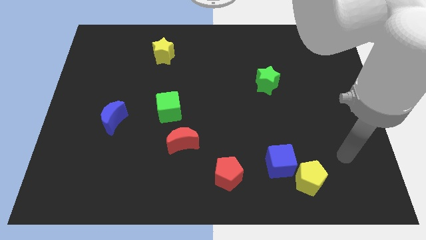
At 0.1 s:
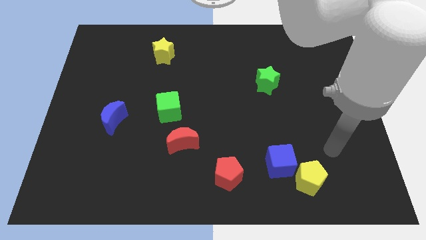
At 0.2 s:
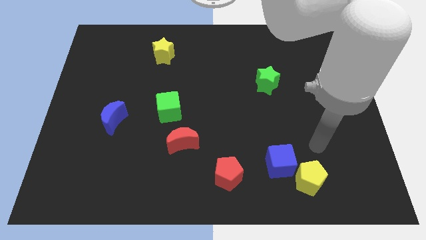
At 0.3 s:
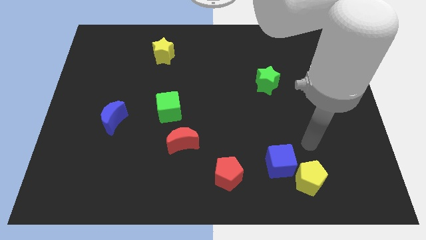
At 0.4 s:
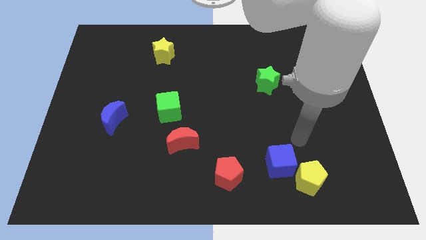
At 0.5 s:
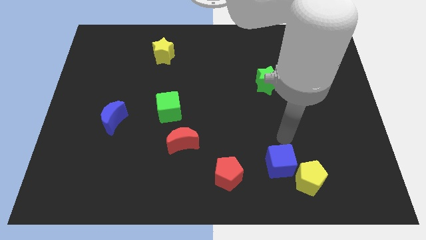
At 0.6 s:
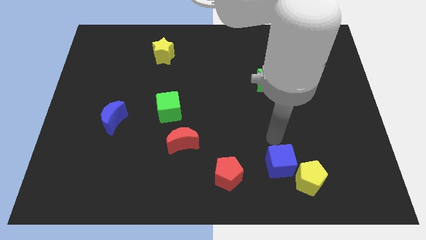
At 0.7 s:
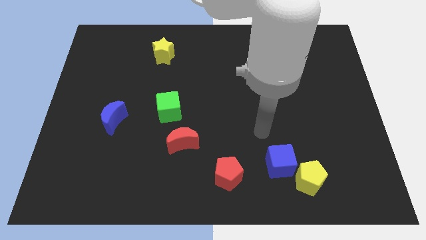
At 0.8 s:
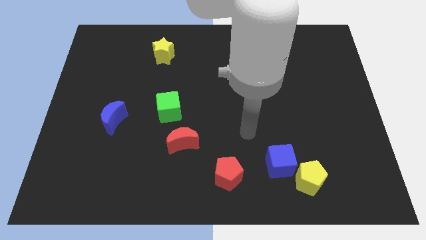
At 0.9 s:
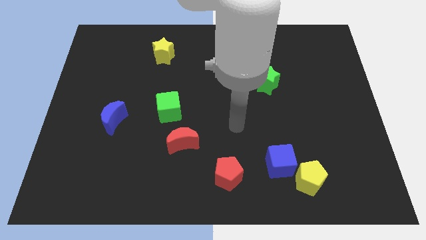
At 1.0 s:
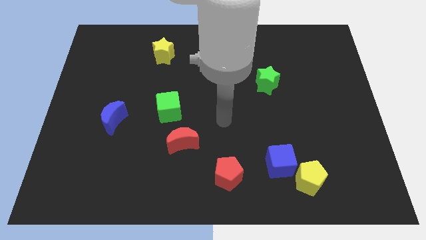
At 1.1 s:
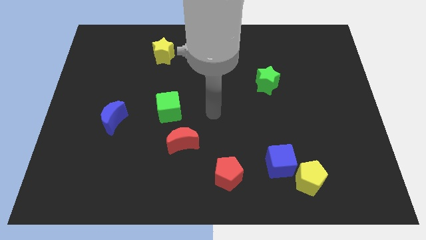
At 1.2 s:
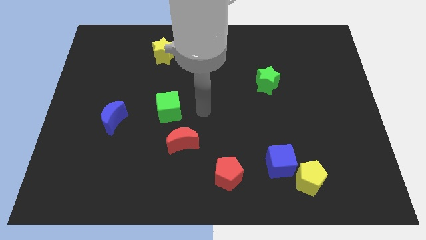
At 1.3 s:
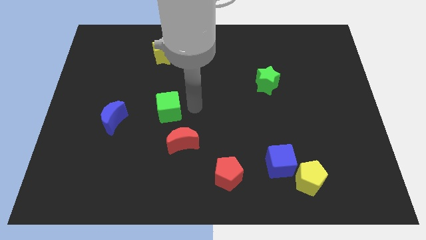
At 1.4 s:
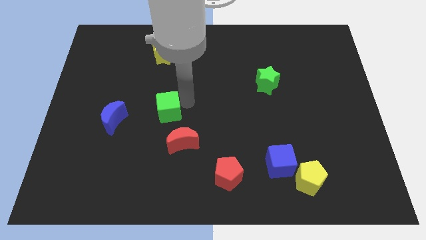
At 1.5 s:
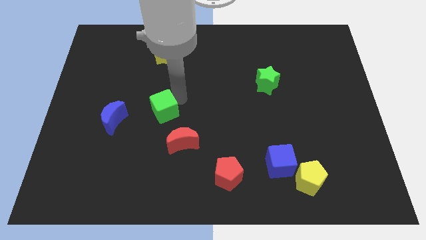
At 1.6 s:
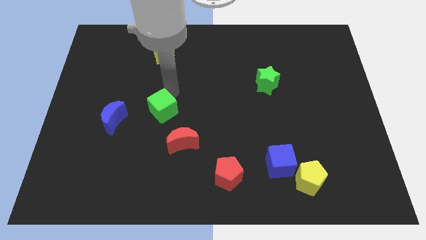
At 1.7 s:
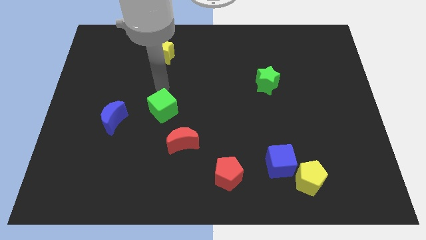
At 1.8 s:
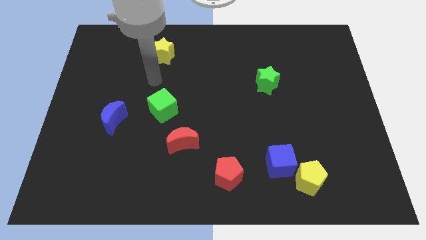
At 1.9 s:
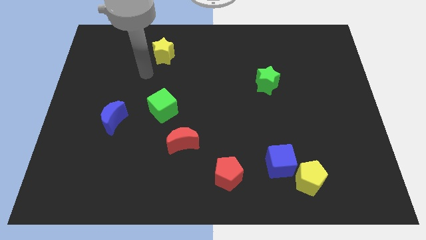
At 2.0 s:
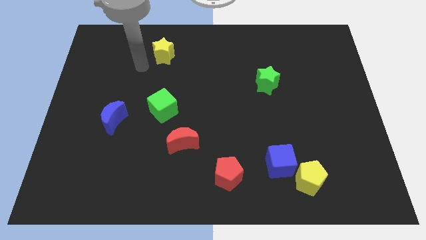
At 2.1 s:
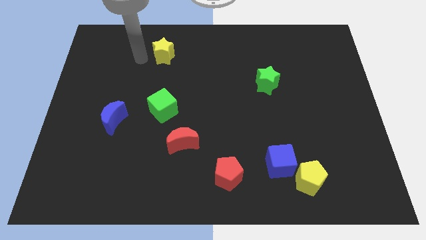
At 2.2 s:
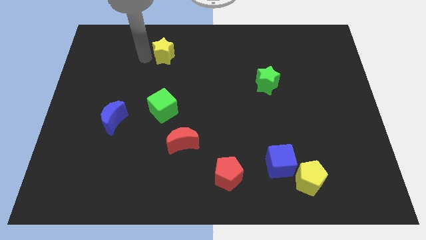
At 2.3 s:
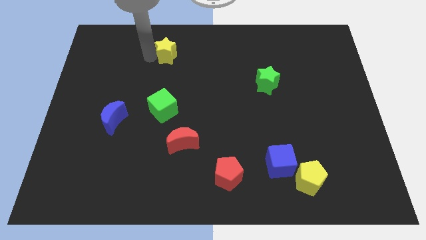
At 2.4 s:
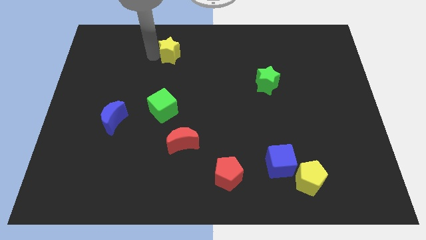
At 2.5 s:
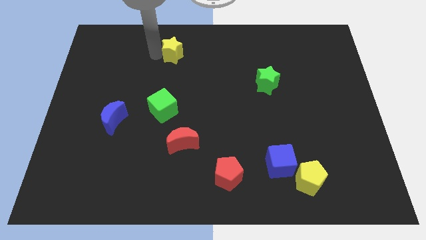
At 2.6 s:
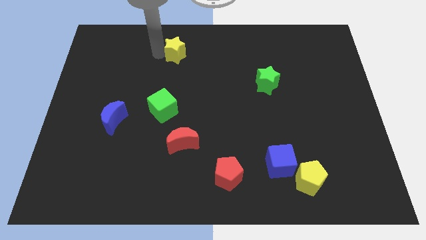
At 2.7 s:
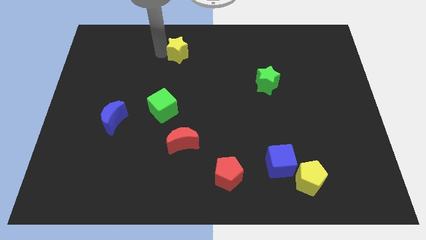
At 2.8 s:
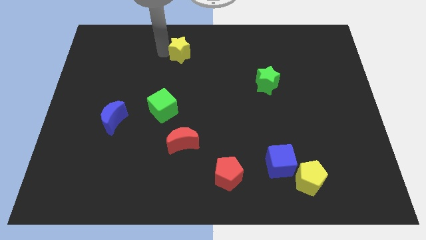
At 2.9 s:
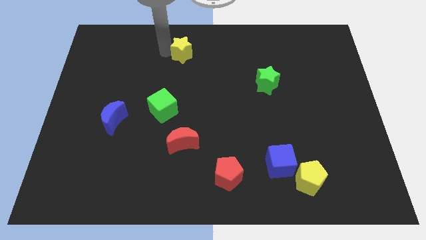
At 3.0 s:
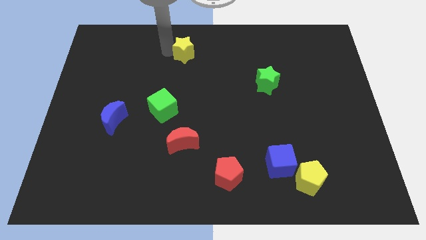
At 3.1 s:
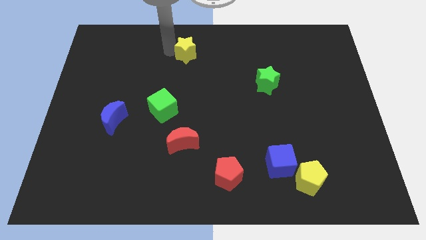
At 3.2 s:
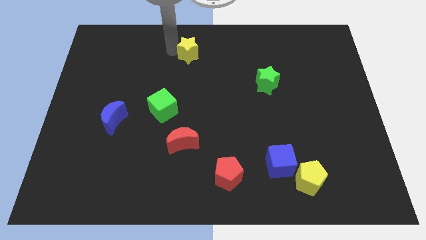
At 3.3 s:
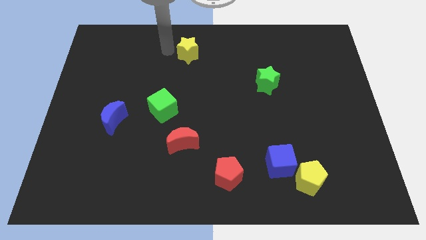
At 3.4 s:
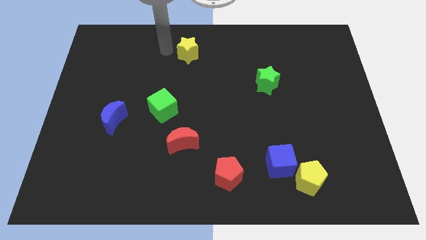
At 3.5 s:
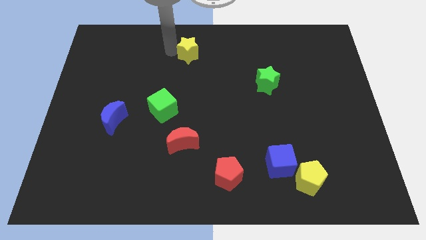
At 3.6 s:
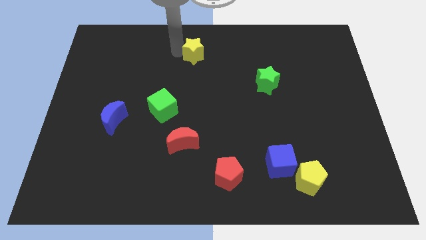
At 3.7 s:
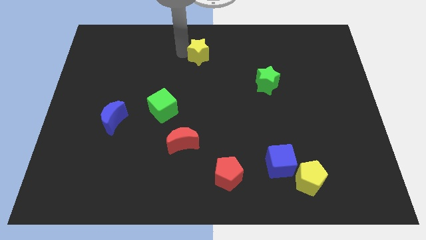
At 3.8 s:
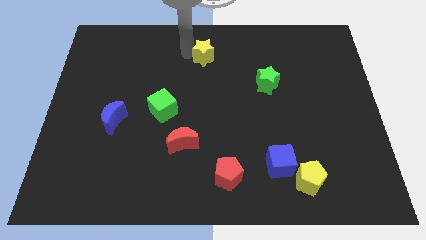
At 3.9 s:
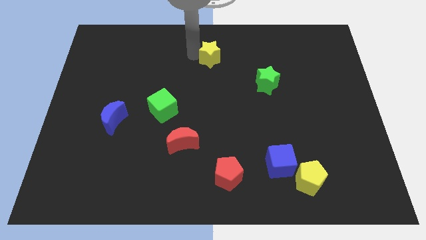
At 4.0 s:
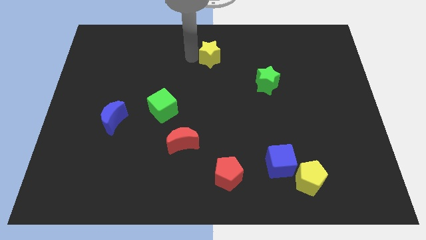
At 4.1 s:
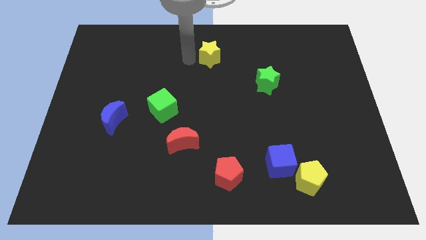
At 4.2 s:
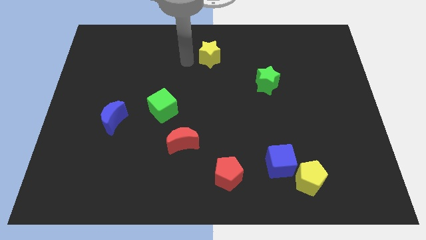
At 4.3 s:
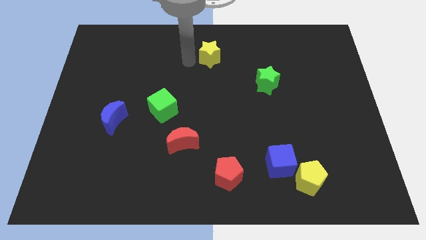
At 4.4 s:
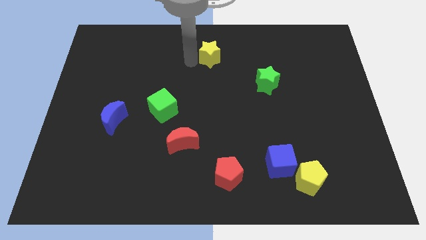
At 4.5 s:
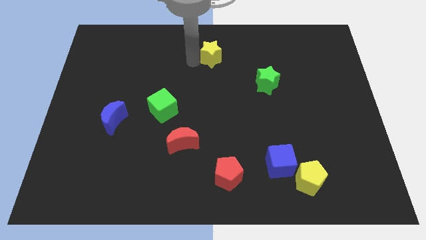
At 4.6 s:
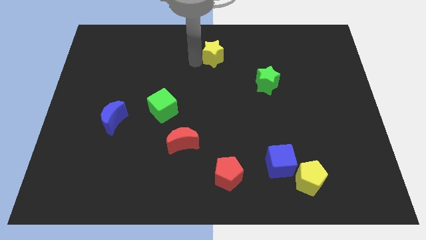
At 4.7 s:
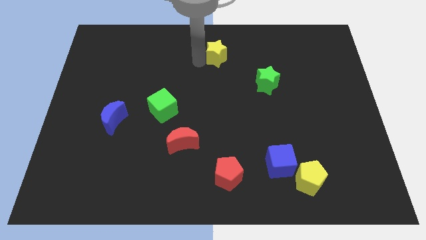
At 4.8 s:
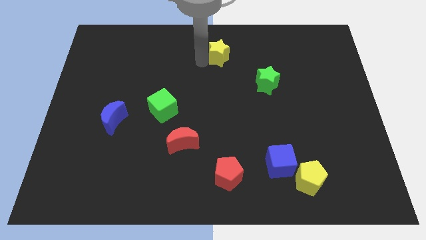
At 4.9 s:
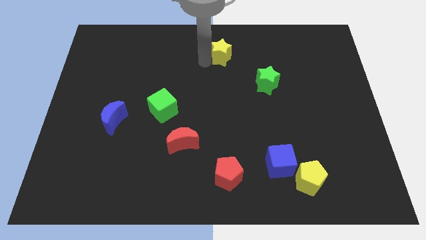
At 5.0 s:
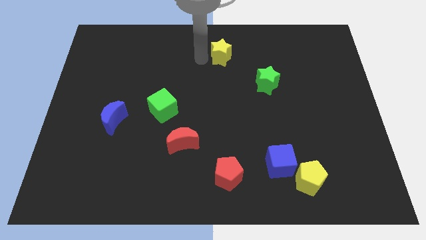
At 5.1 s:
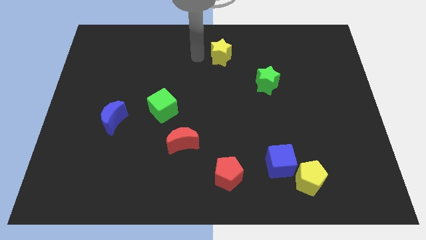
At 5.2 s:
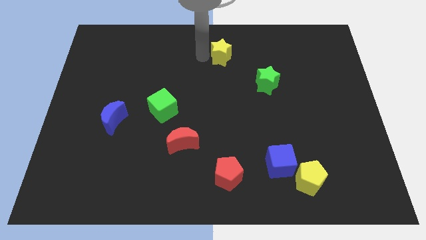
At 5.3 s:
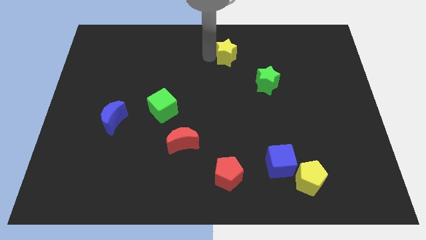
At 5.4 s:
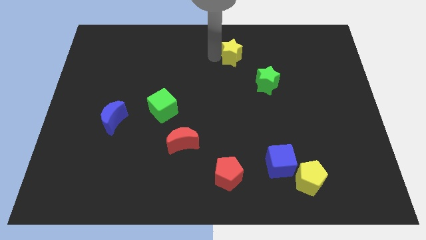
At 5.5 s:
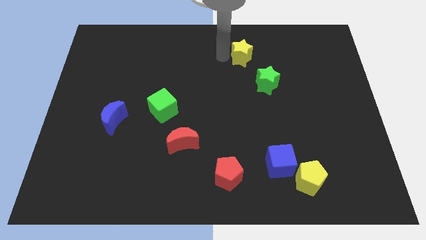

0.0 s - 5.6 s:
push the yellow star to the right

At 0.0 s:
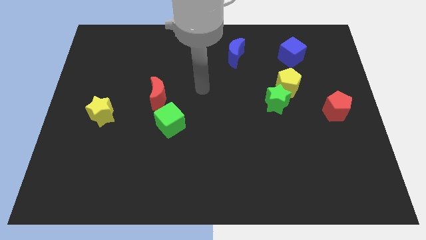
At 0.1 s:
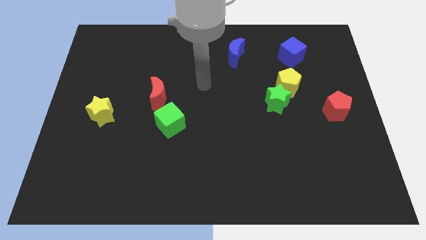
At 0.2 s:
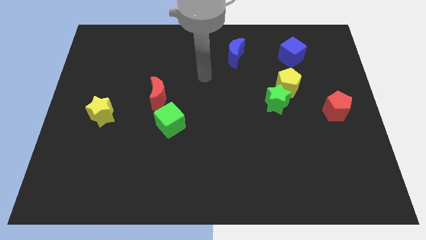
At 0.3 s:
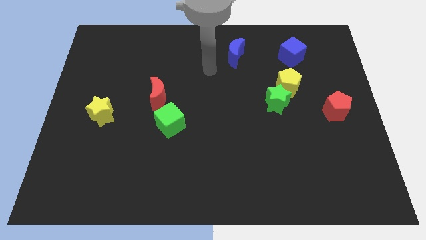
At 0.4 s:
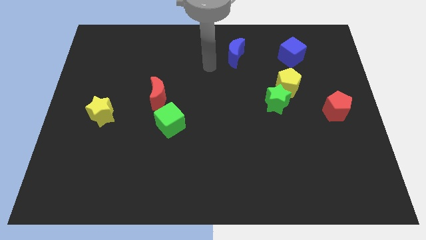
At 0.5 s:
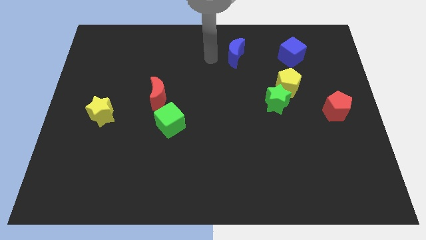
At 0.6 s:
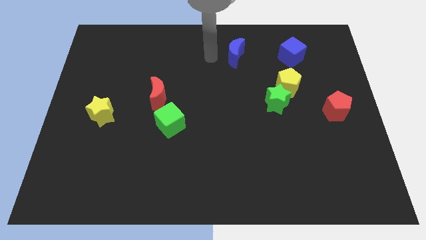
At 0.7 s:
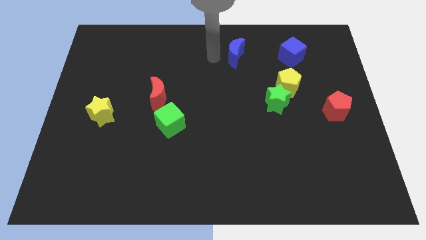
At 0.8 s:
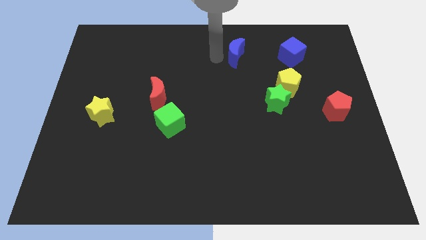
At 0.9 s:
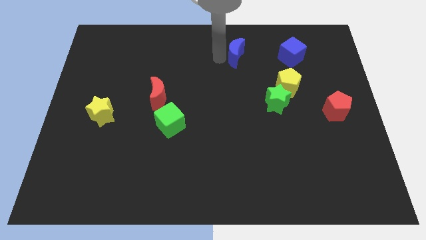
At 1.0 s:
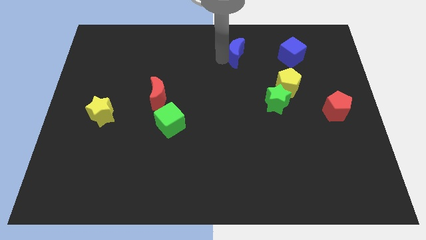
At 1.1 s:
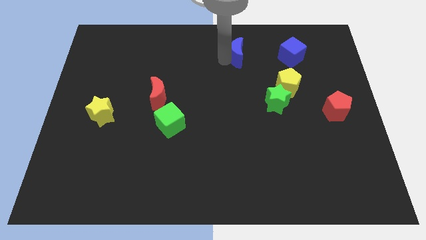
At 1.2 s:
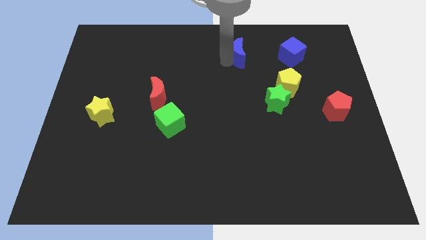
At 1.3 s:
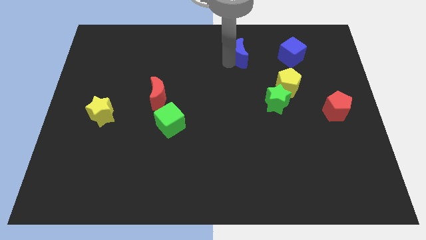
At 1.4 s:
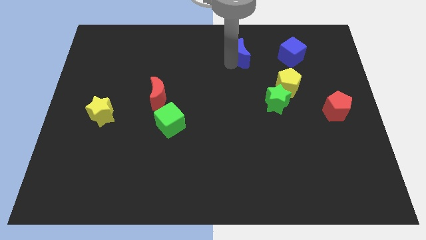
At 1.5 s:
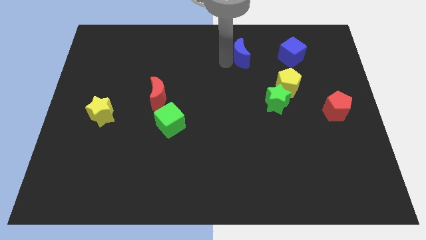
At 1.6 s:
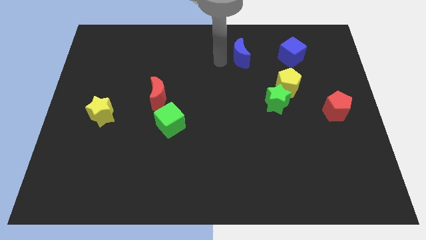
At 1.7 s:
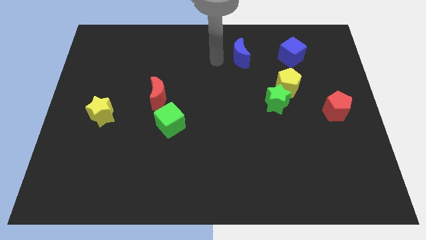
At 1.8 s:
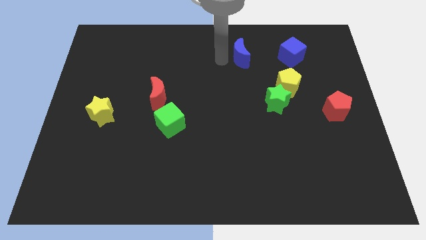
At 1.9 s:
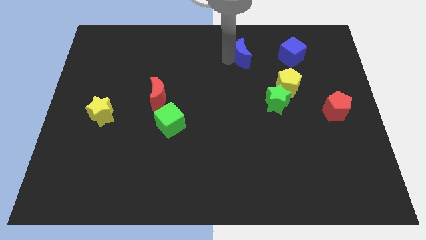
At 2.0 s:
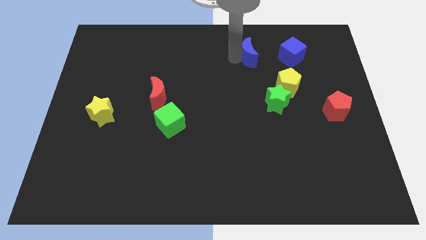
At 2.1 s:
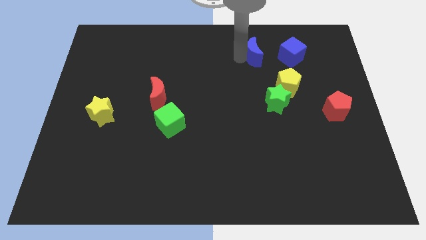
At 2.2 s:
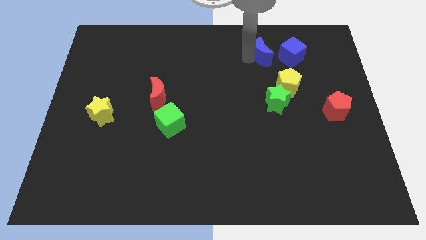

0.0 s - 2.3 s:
move the blue moon to the right slightly

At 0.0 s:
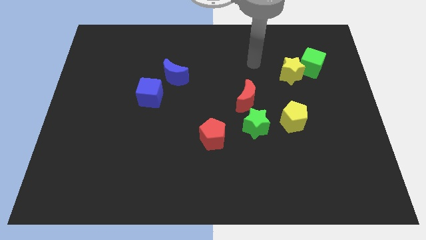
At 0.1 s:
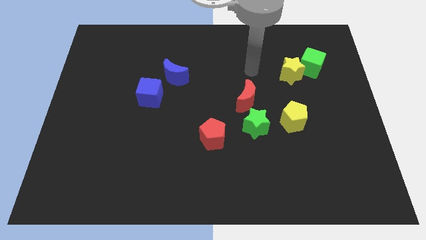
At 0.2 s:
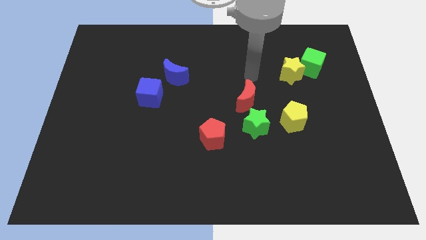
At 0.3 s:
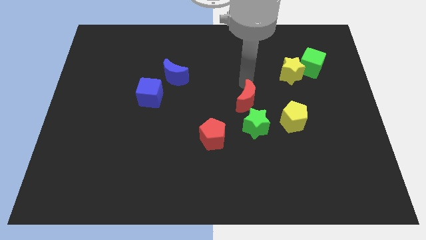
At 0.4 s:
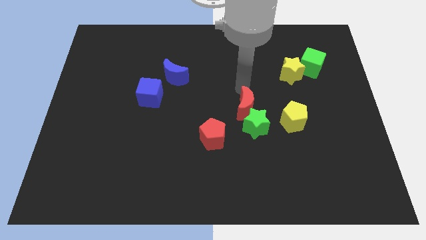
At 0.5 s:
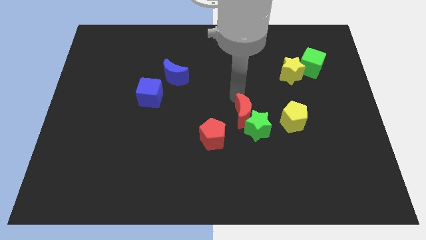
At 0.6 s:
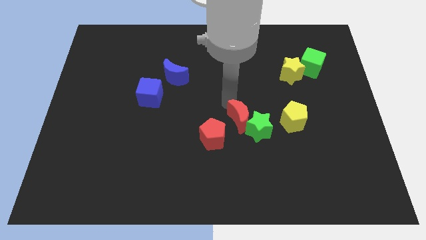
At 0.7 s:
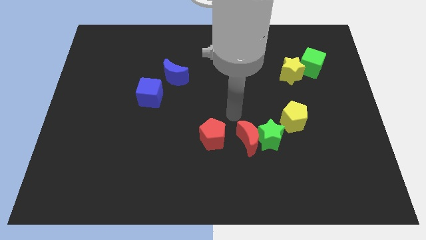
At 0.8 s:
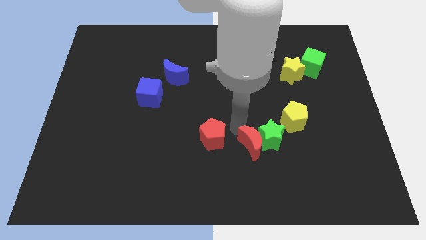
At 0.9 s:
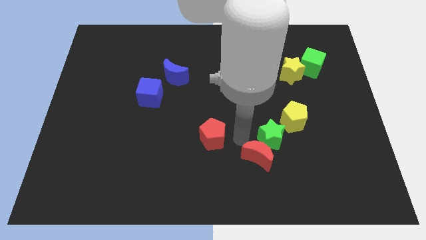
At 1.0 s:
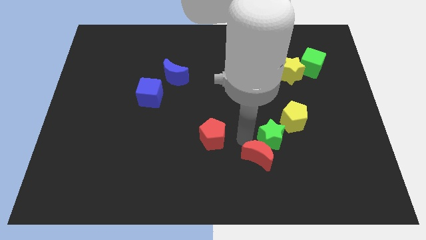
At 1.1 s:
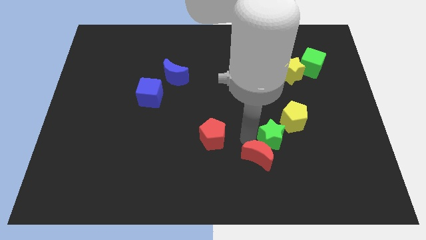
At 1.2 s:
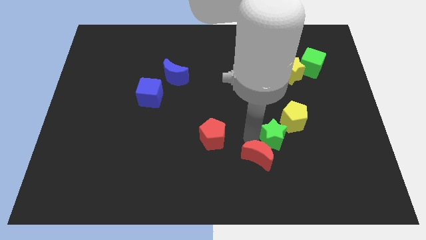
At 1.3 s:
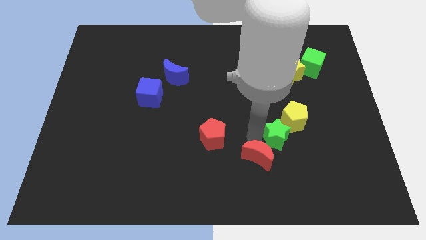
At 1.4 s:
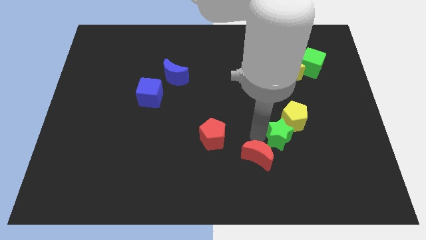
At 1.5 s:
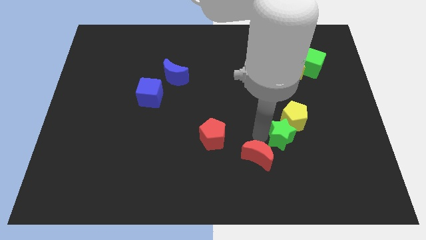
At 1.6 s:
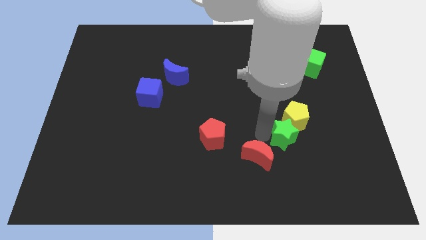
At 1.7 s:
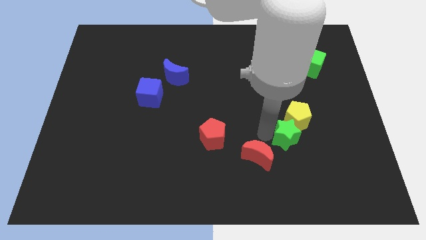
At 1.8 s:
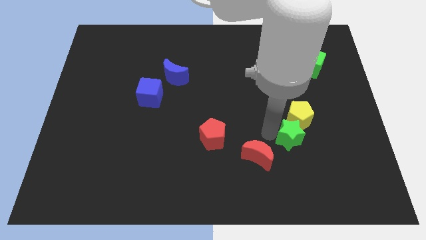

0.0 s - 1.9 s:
move the green star right somewhat
